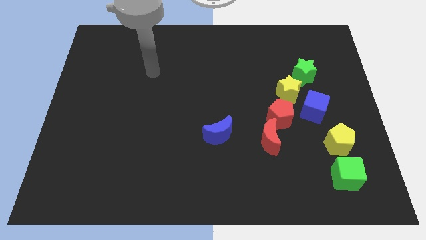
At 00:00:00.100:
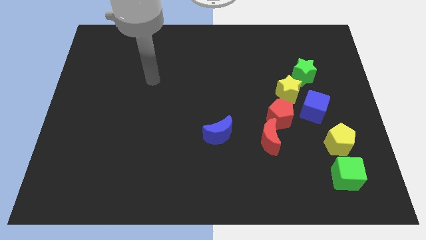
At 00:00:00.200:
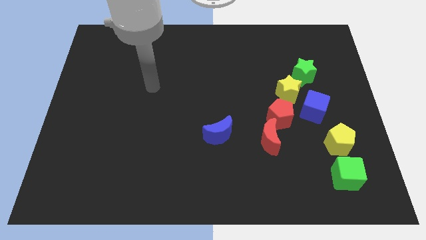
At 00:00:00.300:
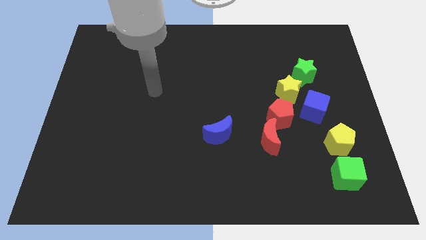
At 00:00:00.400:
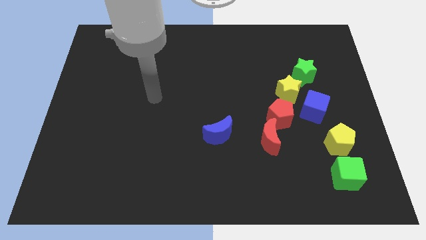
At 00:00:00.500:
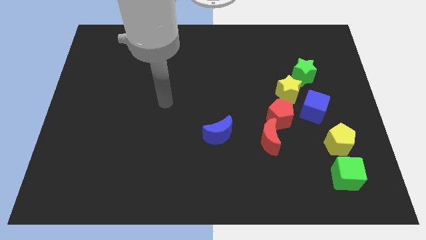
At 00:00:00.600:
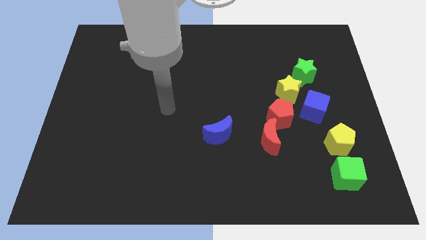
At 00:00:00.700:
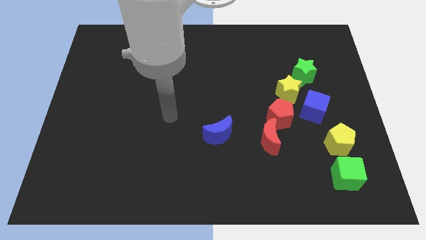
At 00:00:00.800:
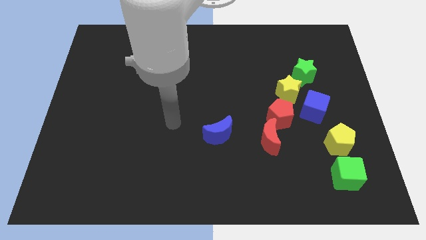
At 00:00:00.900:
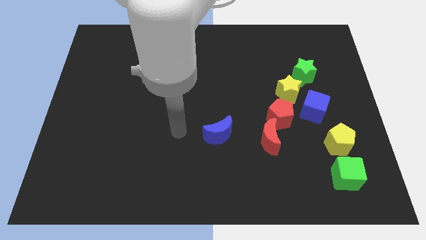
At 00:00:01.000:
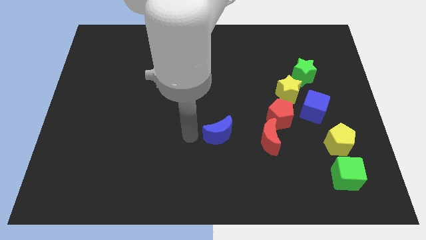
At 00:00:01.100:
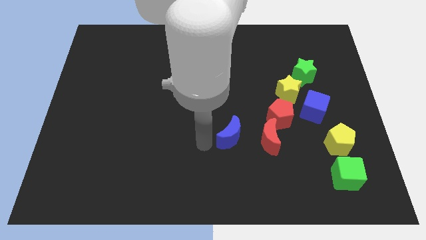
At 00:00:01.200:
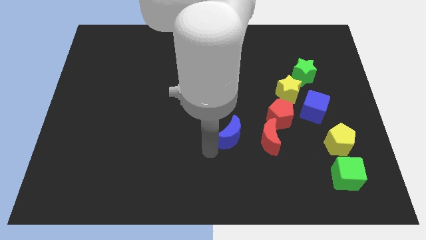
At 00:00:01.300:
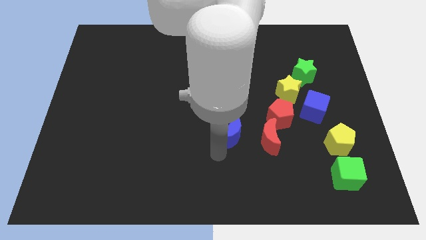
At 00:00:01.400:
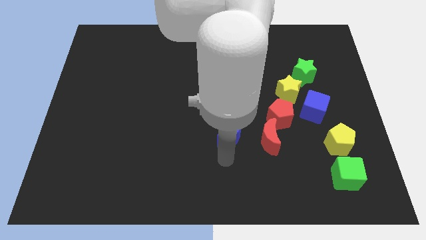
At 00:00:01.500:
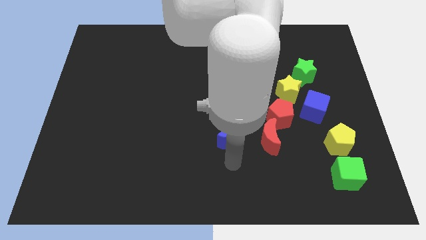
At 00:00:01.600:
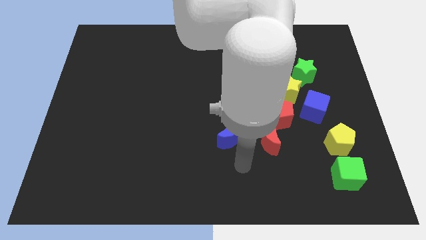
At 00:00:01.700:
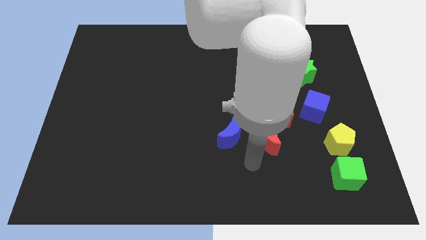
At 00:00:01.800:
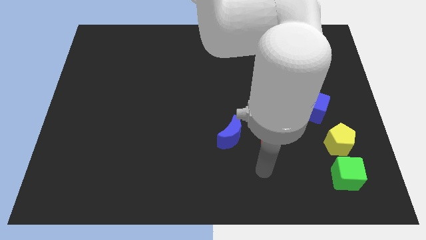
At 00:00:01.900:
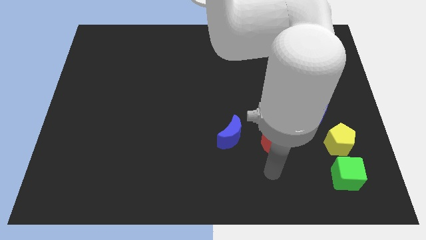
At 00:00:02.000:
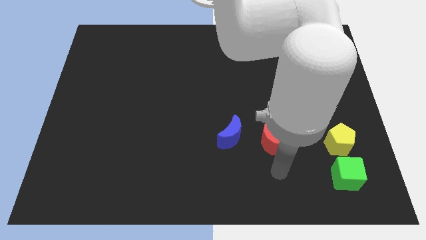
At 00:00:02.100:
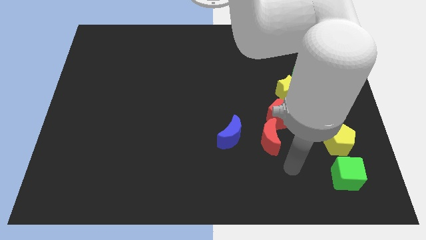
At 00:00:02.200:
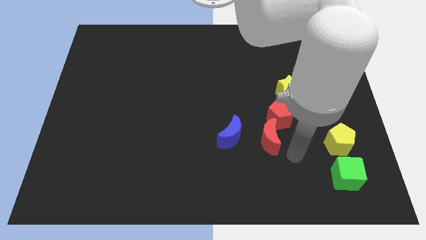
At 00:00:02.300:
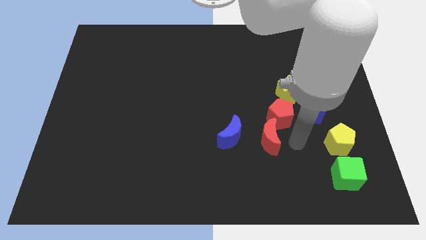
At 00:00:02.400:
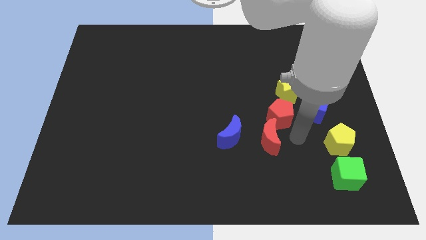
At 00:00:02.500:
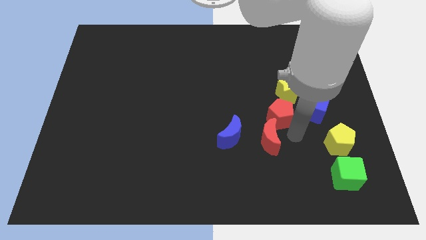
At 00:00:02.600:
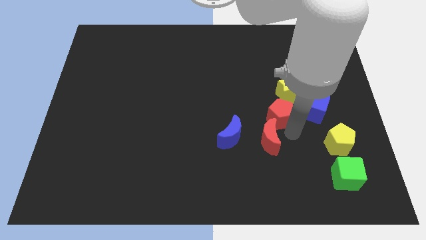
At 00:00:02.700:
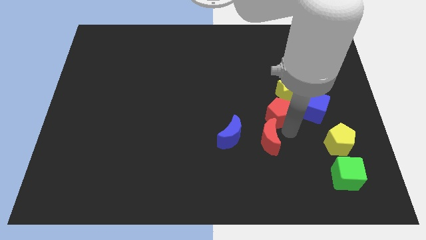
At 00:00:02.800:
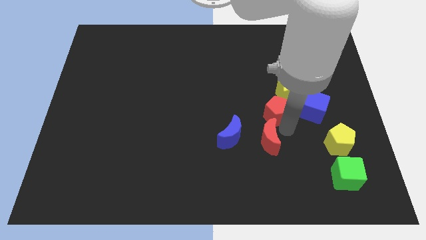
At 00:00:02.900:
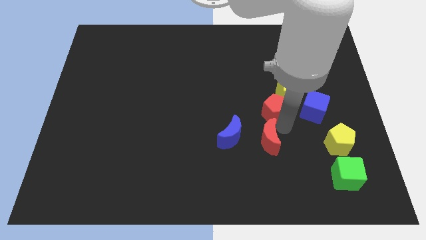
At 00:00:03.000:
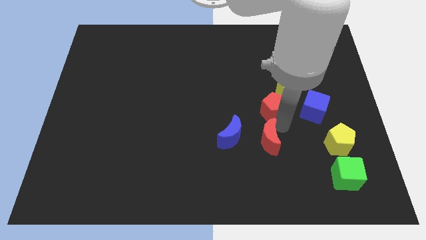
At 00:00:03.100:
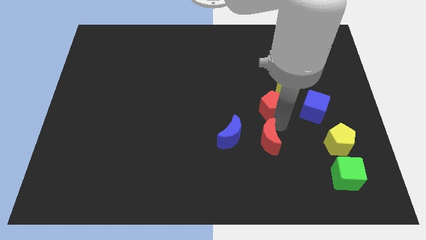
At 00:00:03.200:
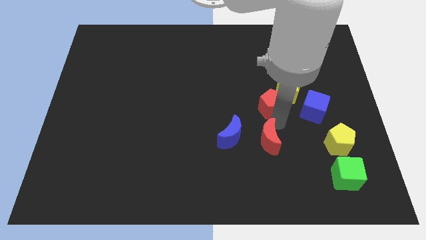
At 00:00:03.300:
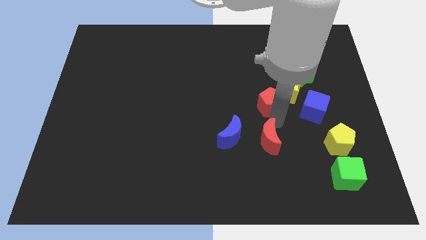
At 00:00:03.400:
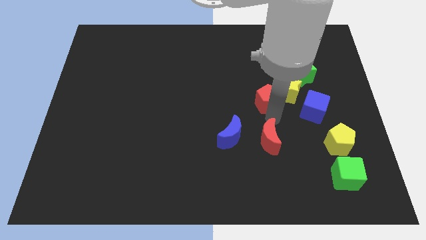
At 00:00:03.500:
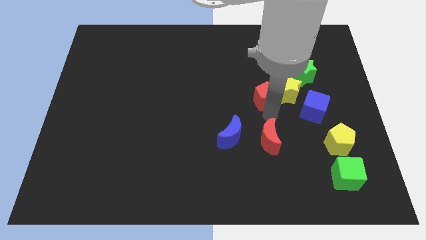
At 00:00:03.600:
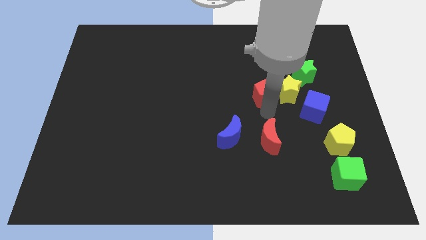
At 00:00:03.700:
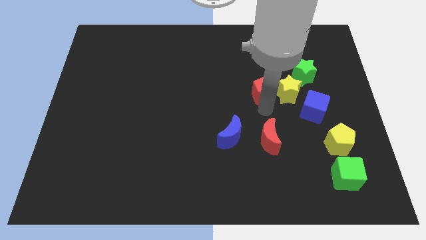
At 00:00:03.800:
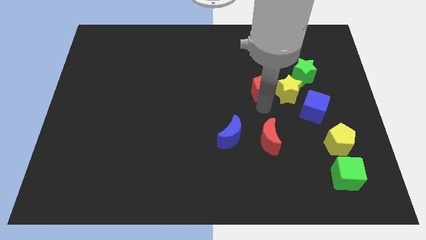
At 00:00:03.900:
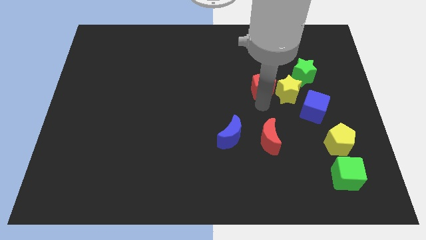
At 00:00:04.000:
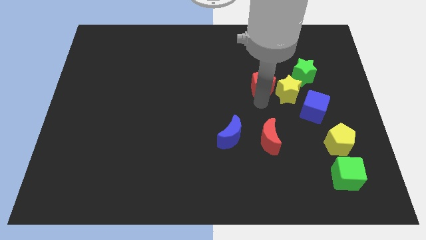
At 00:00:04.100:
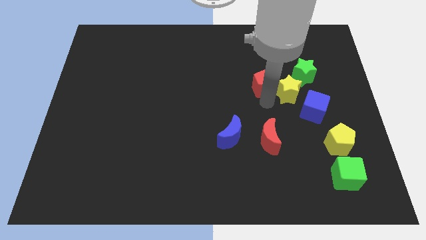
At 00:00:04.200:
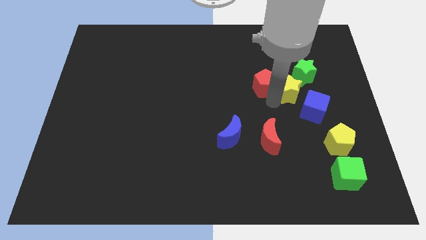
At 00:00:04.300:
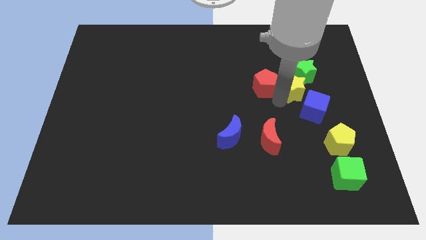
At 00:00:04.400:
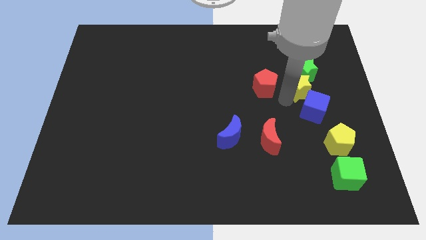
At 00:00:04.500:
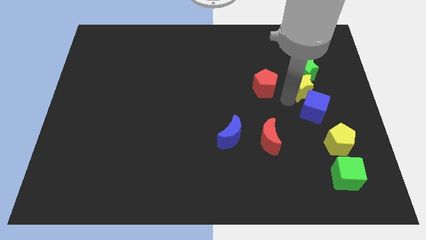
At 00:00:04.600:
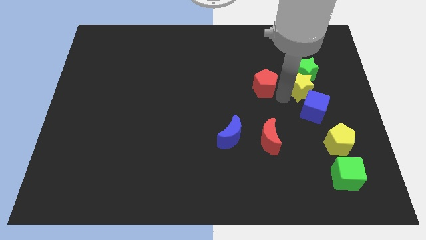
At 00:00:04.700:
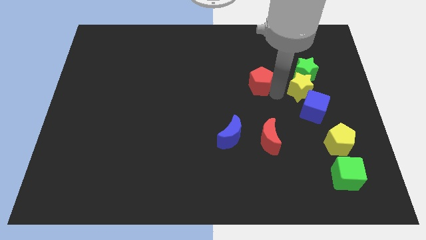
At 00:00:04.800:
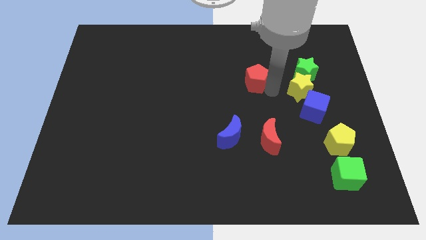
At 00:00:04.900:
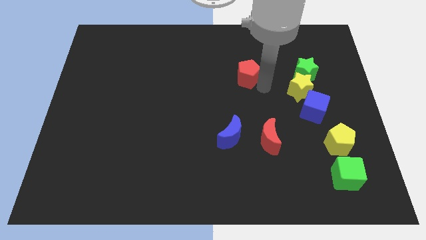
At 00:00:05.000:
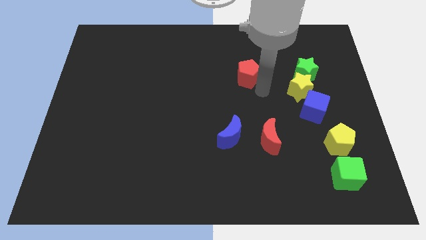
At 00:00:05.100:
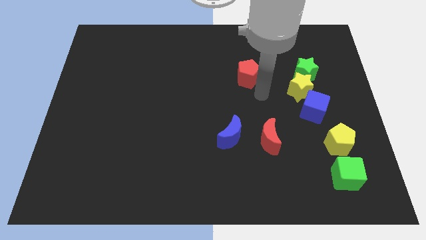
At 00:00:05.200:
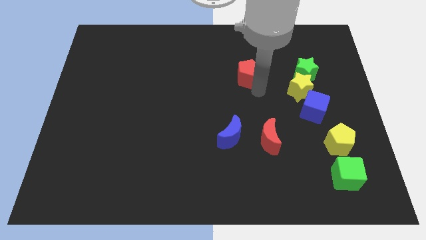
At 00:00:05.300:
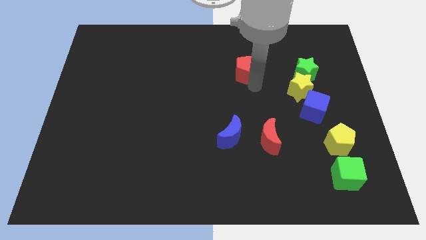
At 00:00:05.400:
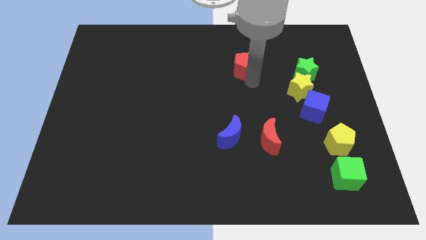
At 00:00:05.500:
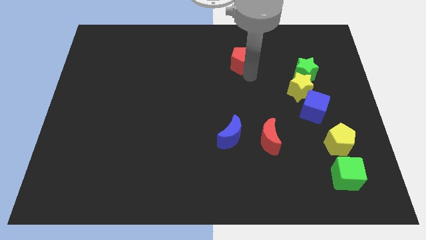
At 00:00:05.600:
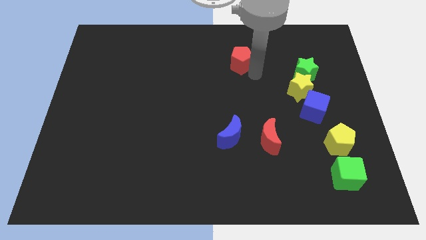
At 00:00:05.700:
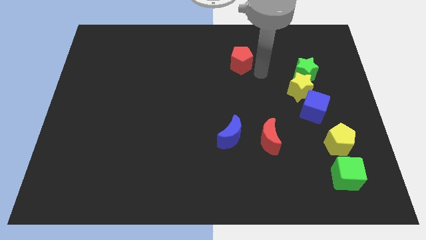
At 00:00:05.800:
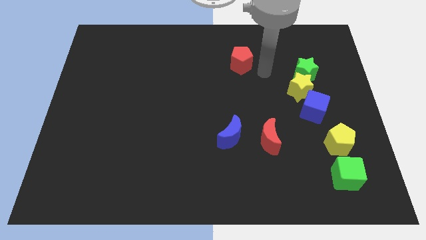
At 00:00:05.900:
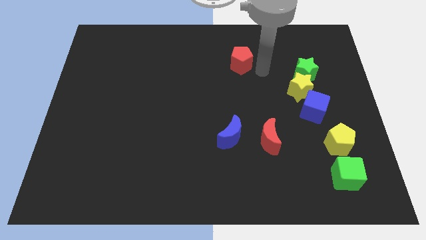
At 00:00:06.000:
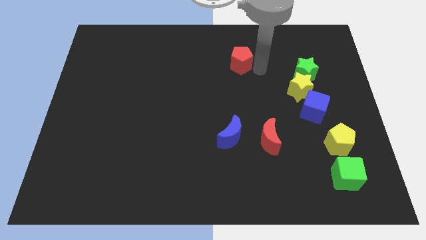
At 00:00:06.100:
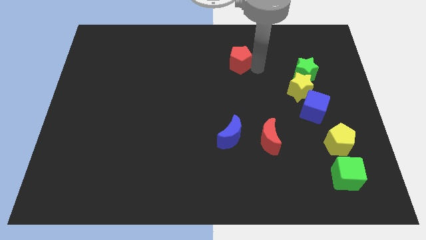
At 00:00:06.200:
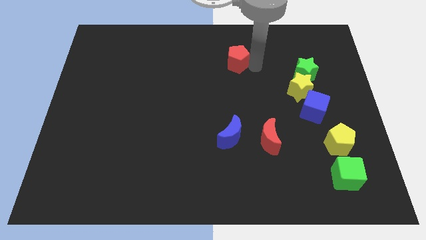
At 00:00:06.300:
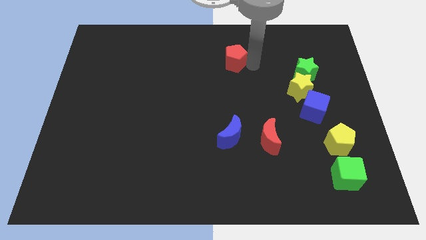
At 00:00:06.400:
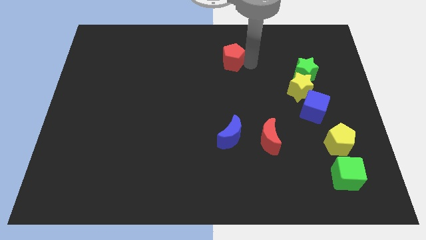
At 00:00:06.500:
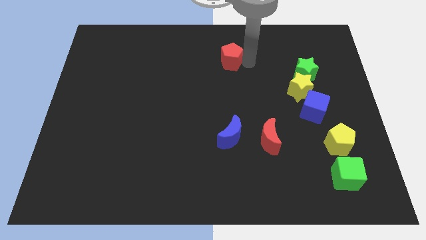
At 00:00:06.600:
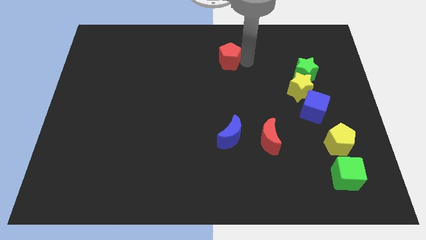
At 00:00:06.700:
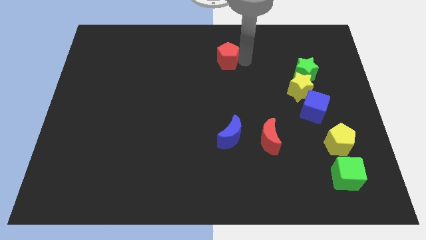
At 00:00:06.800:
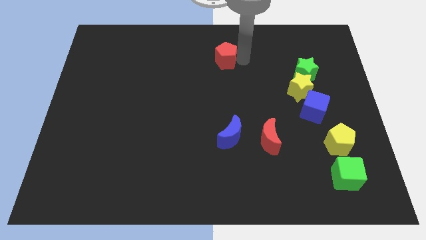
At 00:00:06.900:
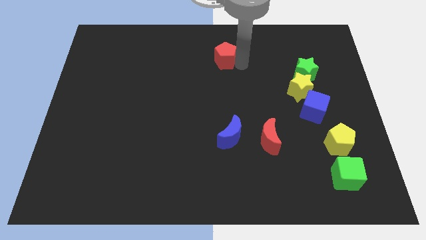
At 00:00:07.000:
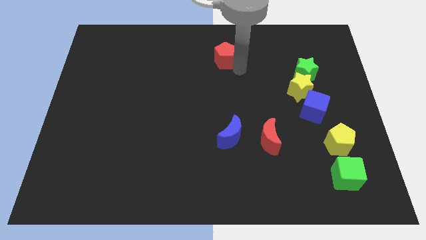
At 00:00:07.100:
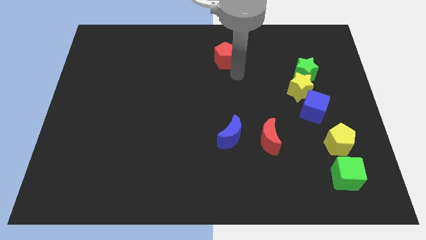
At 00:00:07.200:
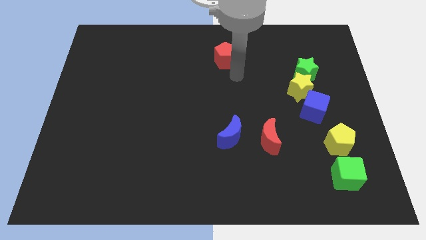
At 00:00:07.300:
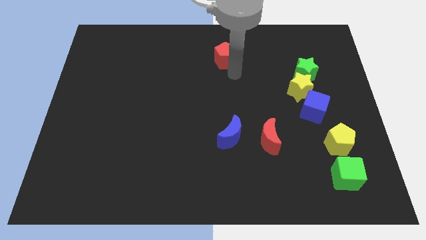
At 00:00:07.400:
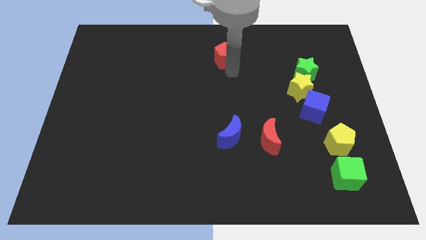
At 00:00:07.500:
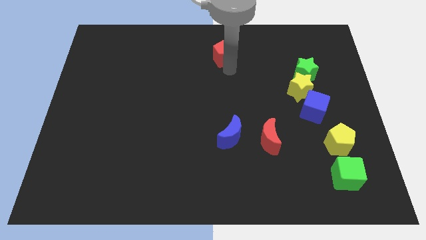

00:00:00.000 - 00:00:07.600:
slide the red pentagon to the top
